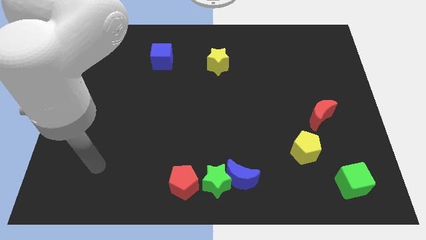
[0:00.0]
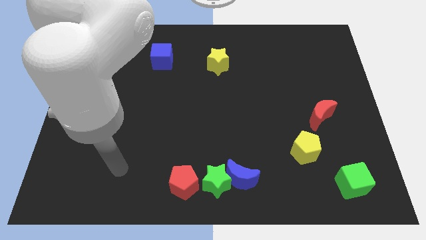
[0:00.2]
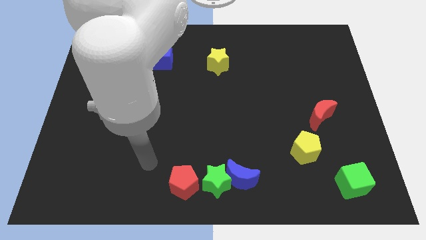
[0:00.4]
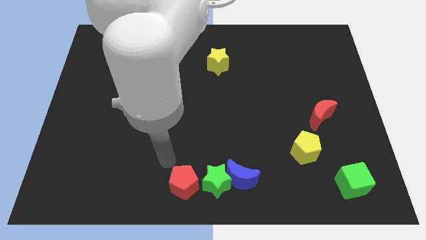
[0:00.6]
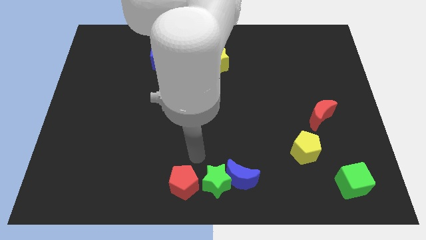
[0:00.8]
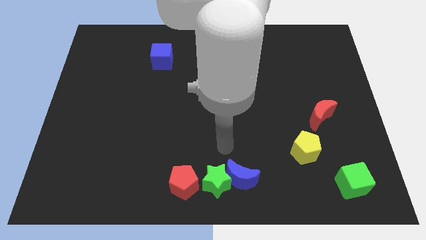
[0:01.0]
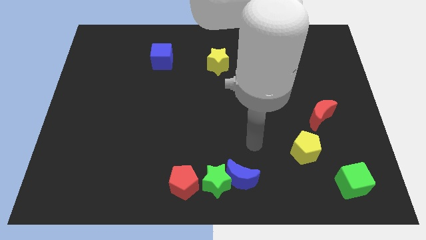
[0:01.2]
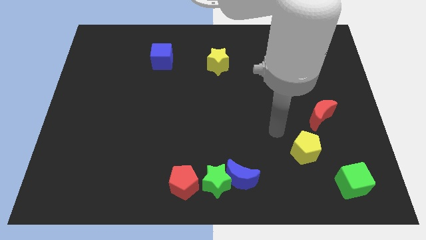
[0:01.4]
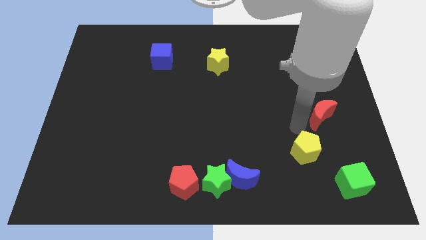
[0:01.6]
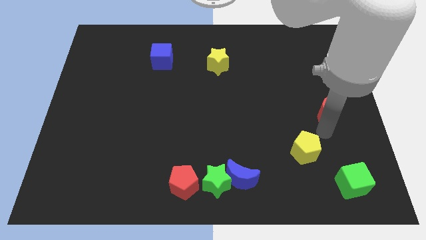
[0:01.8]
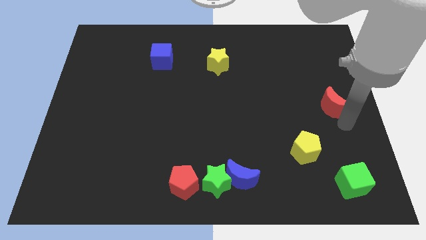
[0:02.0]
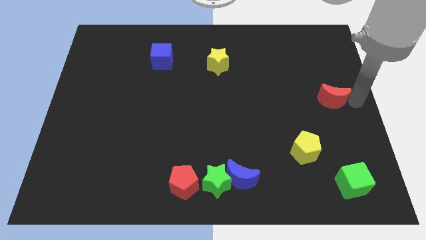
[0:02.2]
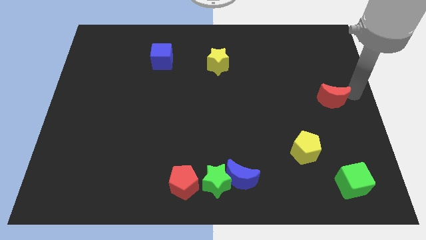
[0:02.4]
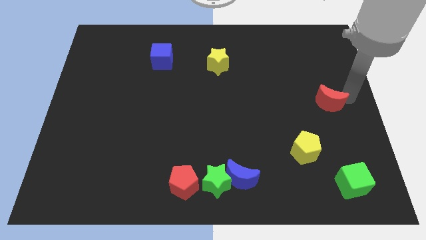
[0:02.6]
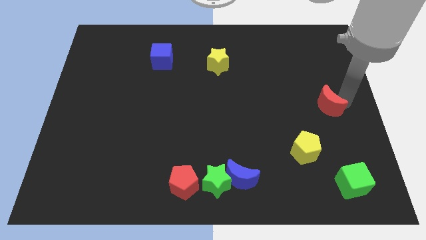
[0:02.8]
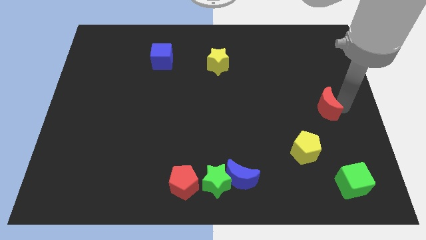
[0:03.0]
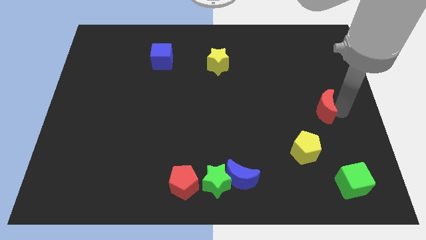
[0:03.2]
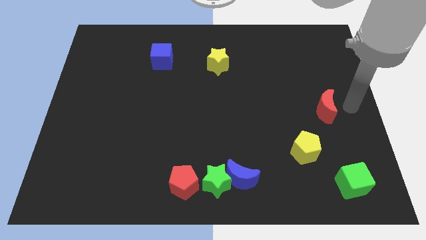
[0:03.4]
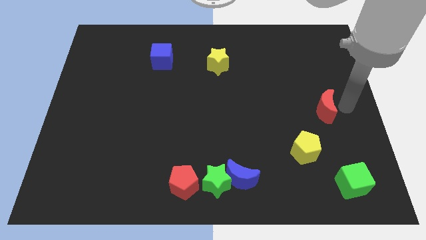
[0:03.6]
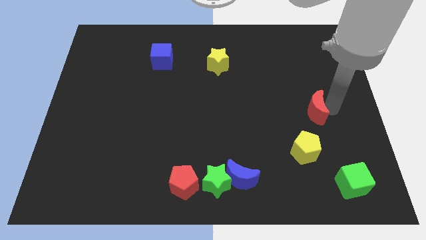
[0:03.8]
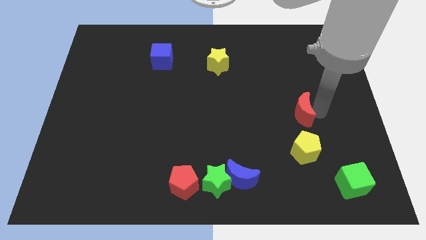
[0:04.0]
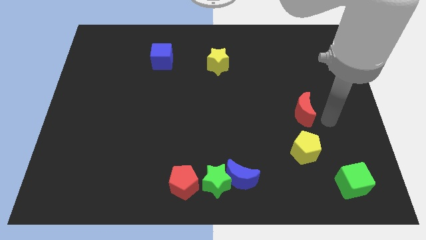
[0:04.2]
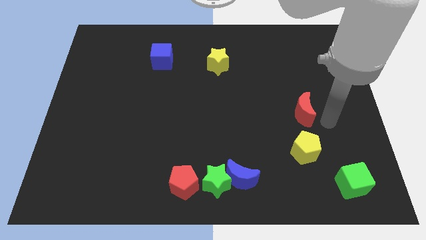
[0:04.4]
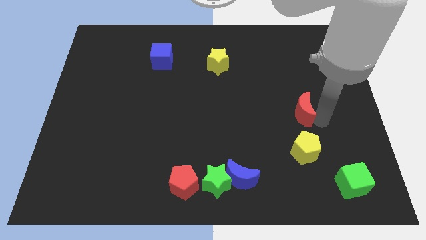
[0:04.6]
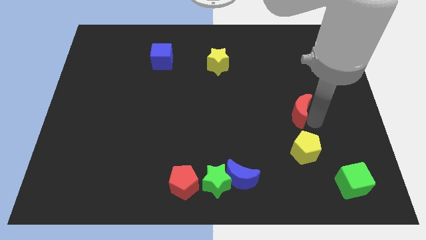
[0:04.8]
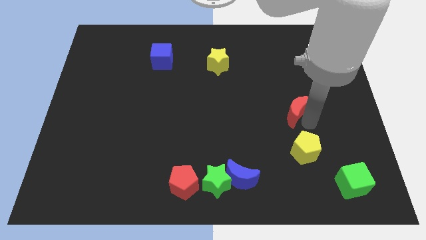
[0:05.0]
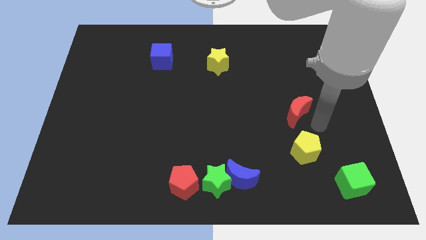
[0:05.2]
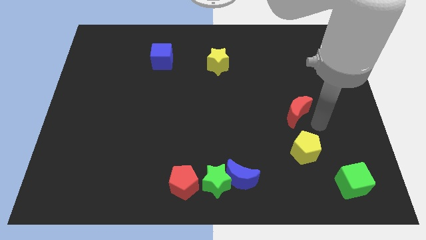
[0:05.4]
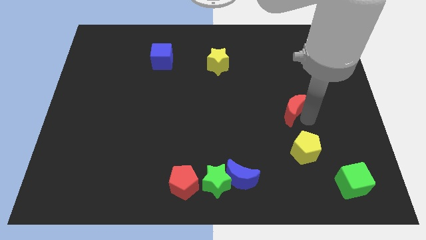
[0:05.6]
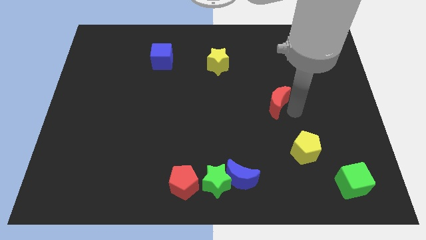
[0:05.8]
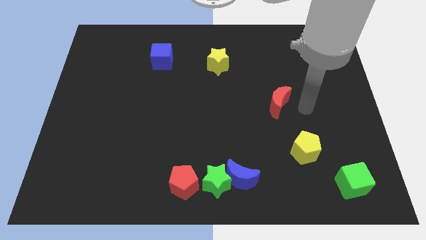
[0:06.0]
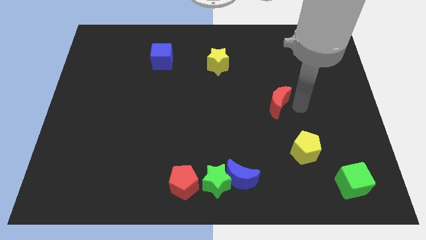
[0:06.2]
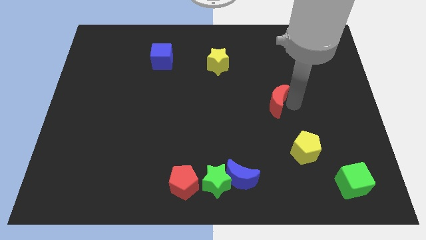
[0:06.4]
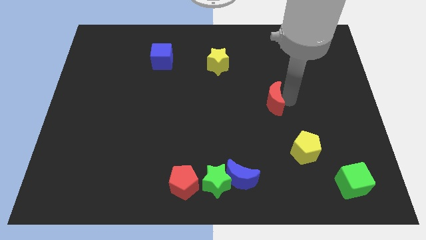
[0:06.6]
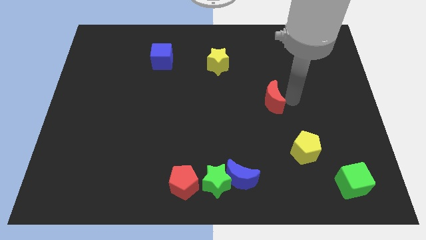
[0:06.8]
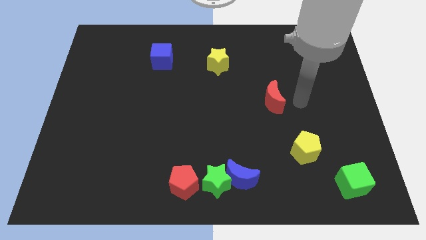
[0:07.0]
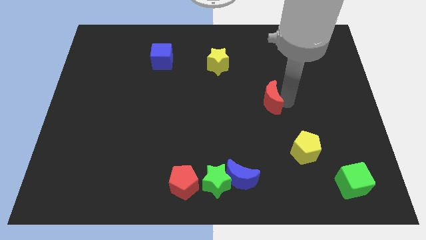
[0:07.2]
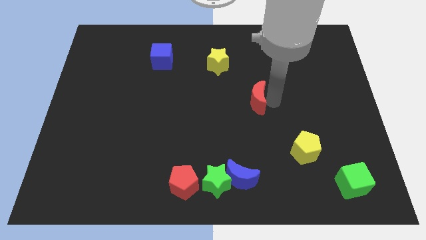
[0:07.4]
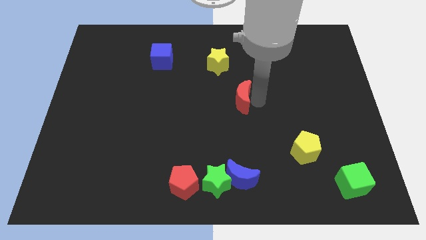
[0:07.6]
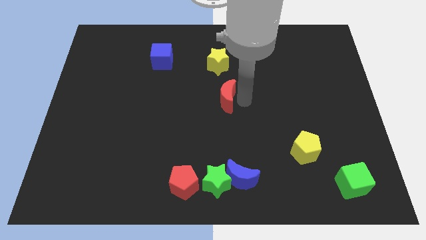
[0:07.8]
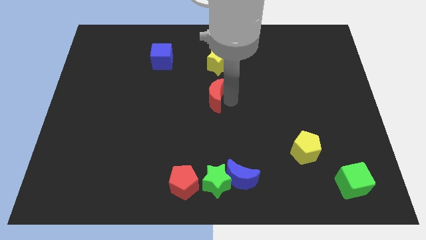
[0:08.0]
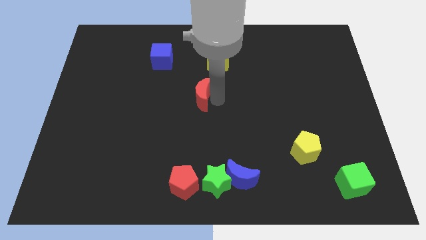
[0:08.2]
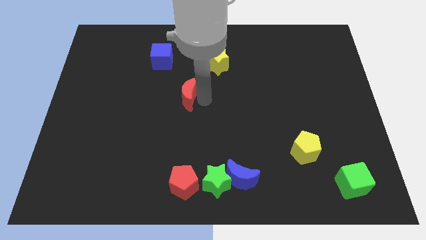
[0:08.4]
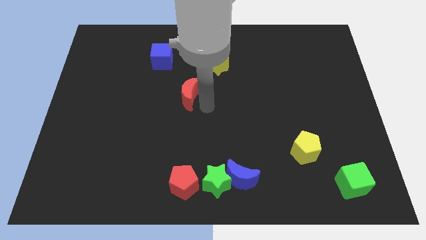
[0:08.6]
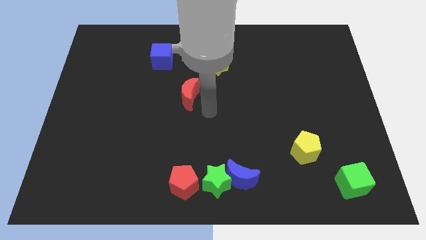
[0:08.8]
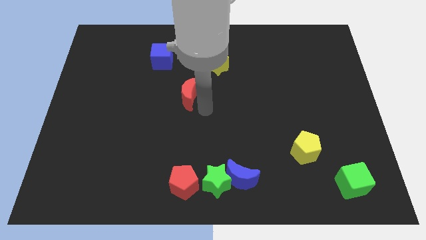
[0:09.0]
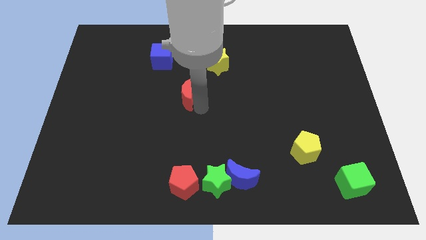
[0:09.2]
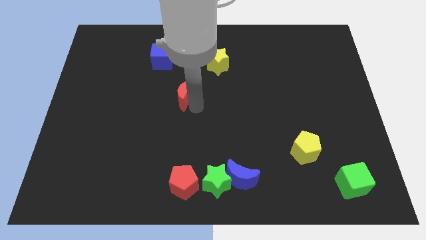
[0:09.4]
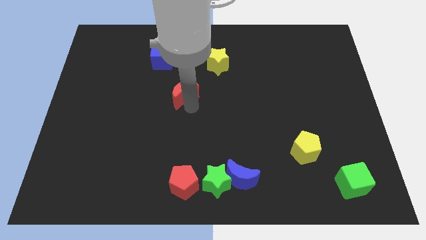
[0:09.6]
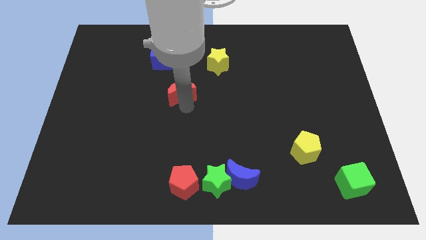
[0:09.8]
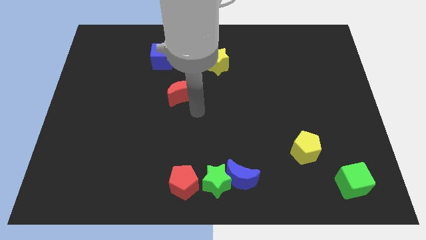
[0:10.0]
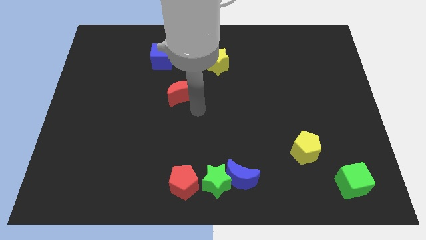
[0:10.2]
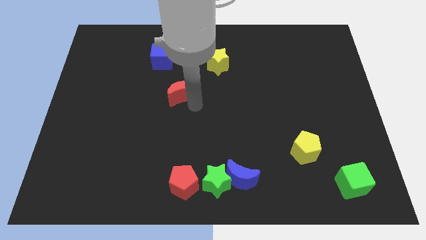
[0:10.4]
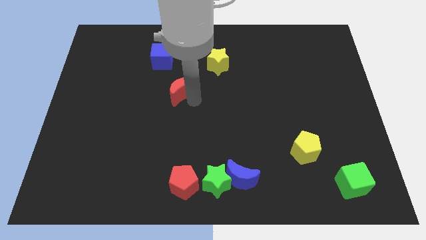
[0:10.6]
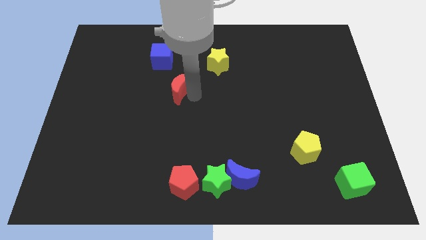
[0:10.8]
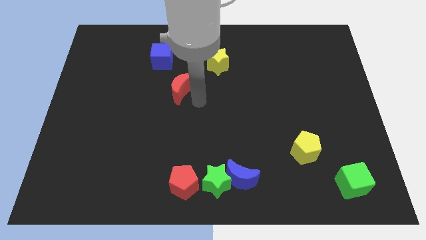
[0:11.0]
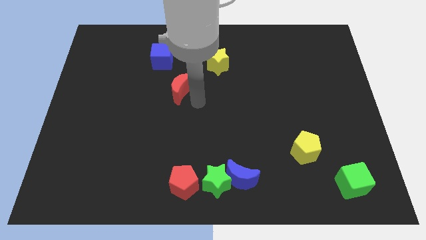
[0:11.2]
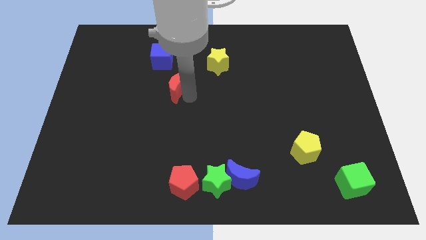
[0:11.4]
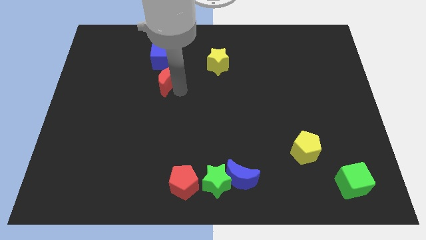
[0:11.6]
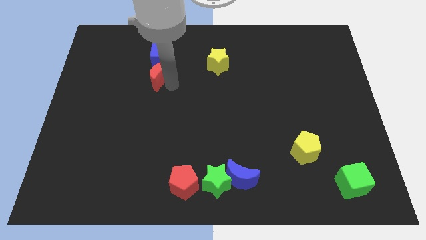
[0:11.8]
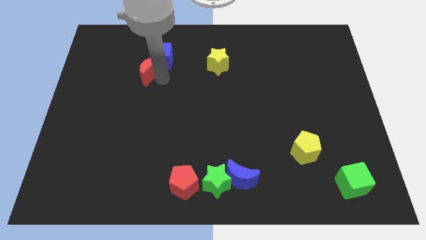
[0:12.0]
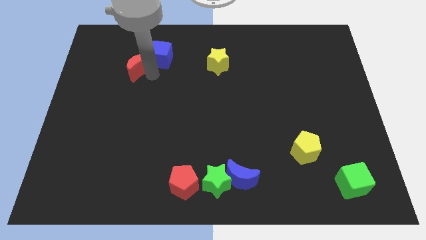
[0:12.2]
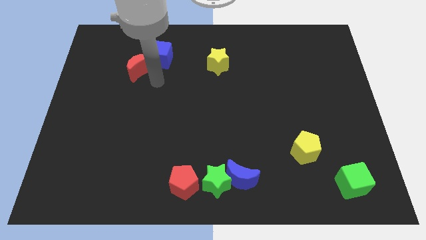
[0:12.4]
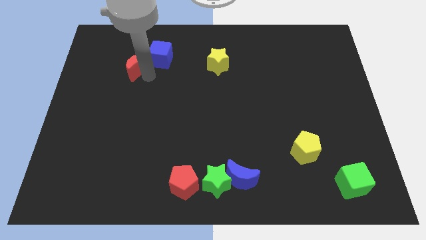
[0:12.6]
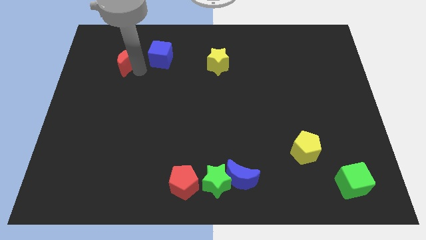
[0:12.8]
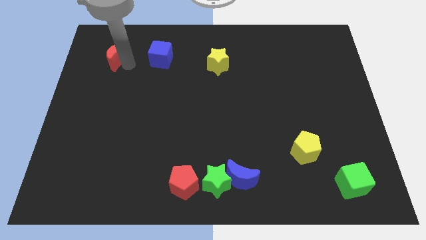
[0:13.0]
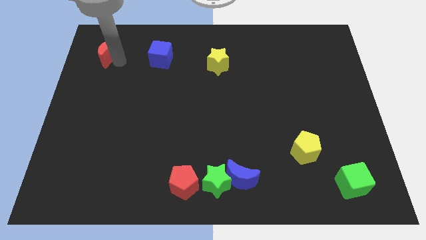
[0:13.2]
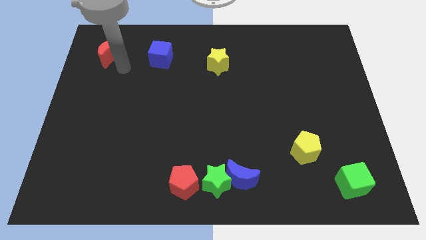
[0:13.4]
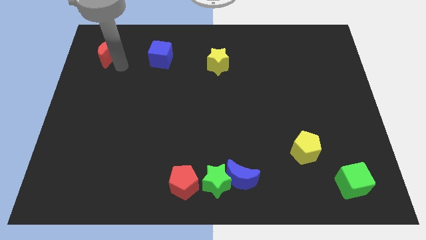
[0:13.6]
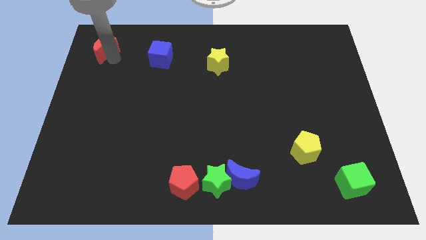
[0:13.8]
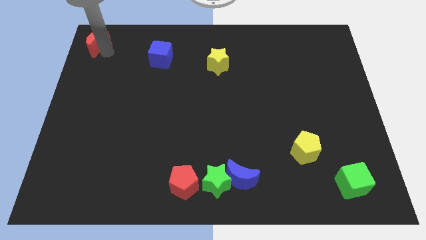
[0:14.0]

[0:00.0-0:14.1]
slide the red moon to the top left corner
